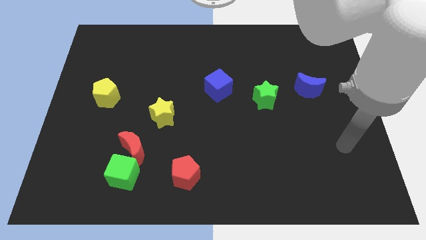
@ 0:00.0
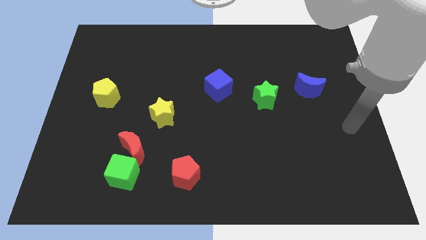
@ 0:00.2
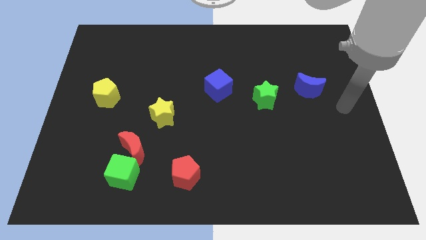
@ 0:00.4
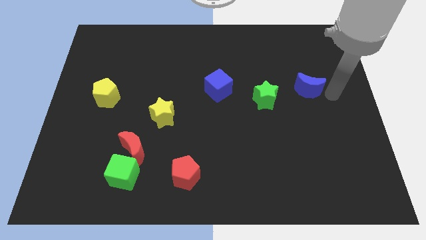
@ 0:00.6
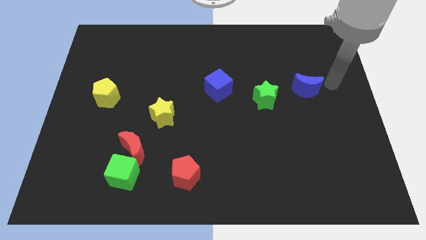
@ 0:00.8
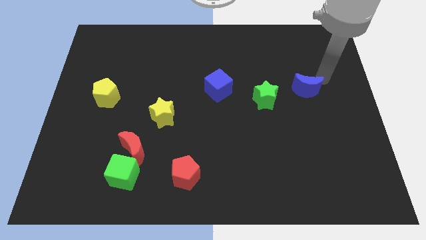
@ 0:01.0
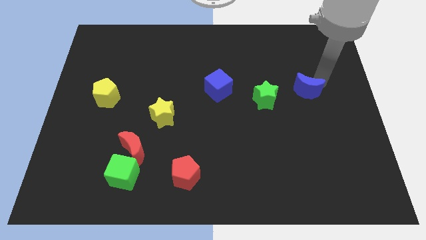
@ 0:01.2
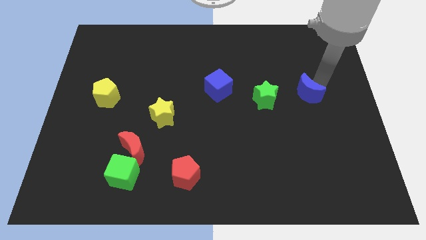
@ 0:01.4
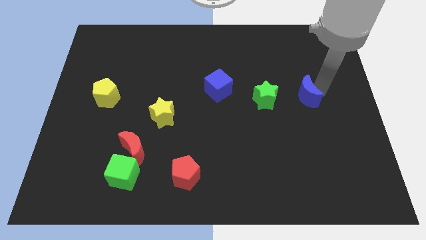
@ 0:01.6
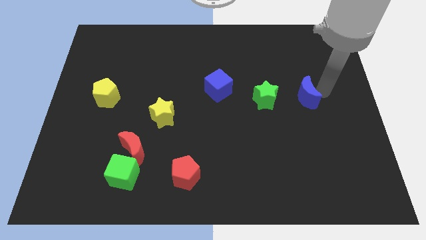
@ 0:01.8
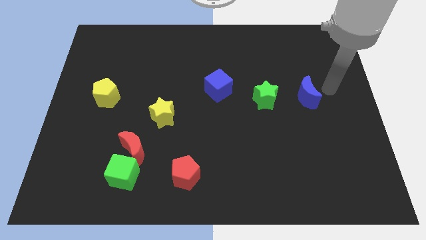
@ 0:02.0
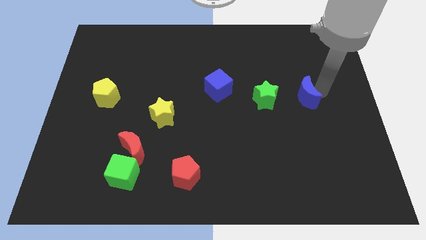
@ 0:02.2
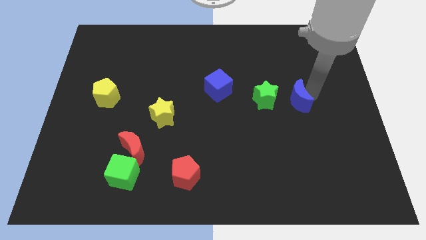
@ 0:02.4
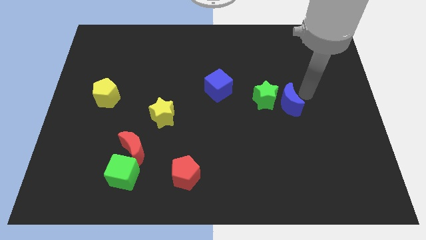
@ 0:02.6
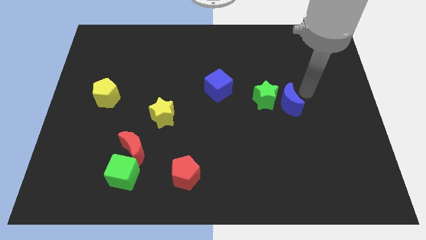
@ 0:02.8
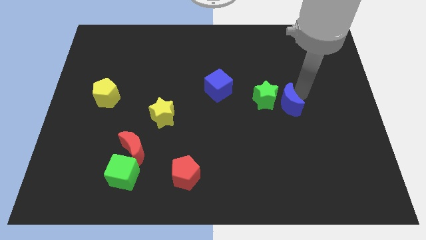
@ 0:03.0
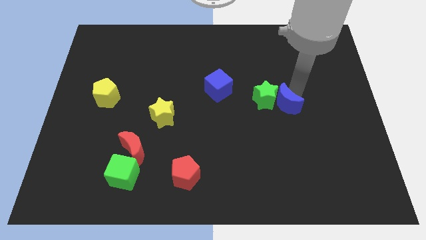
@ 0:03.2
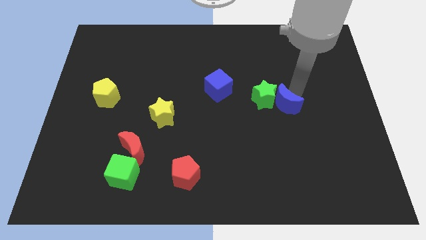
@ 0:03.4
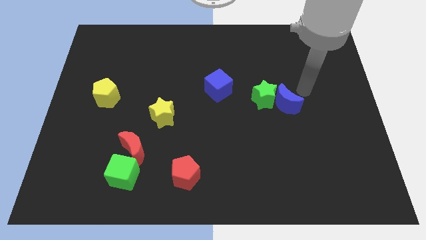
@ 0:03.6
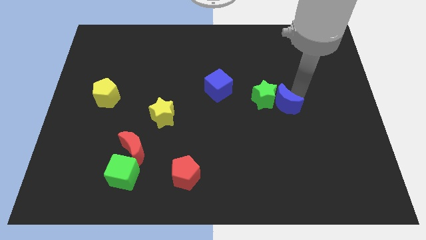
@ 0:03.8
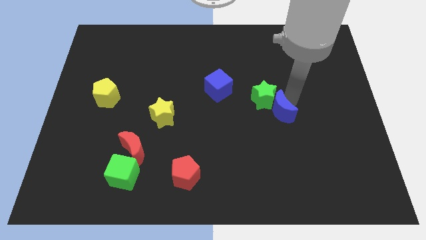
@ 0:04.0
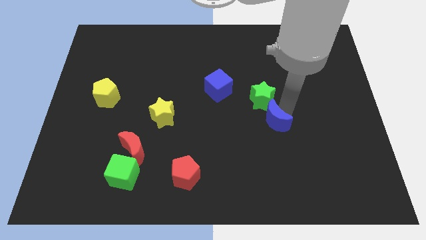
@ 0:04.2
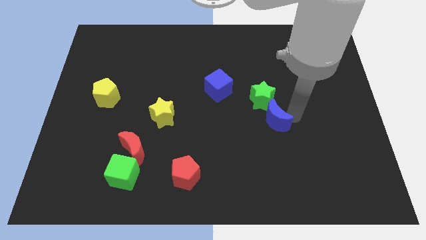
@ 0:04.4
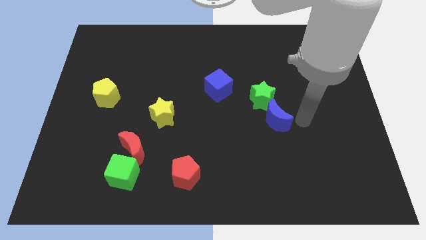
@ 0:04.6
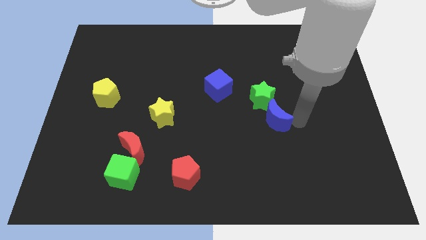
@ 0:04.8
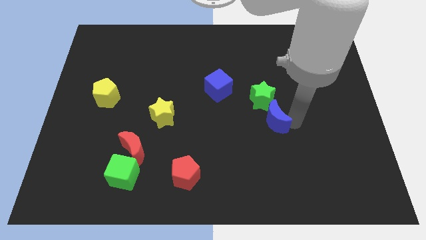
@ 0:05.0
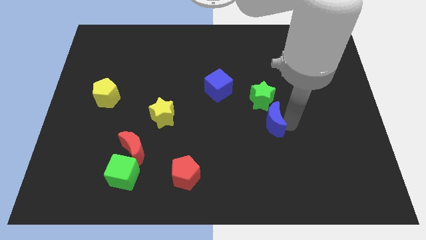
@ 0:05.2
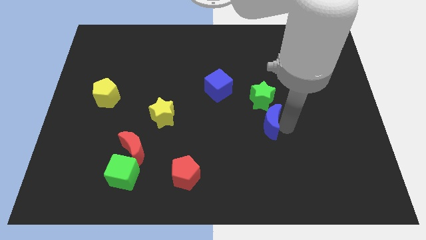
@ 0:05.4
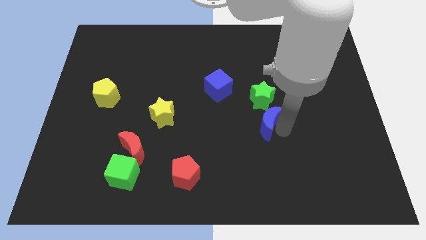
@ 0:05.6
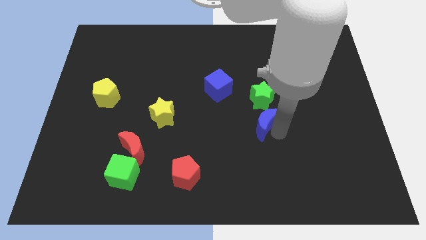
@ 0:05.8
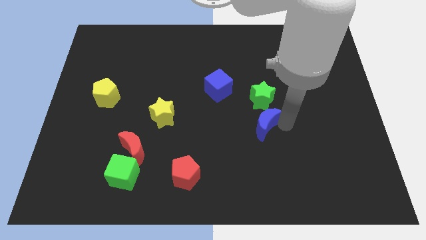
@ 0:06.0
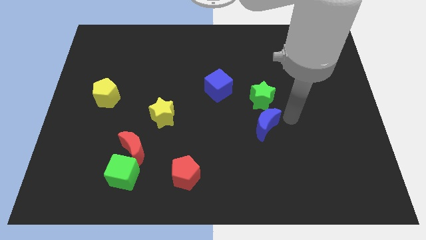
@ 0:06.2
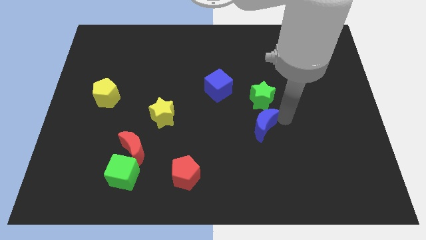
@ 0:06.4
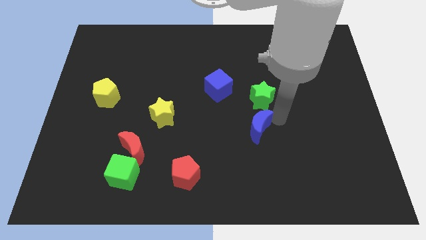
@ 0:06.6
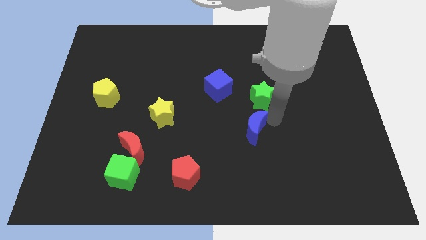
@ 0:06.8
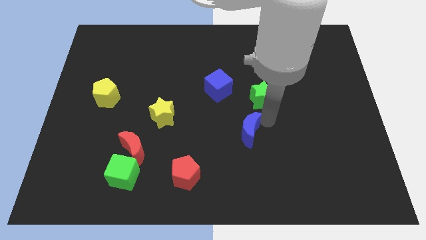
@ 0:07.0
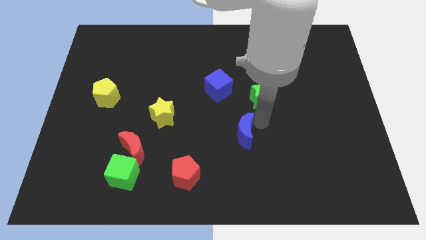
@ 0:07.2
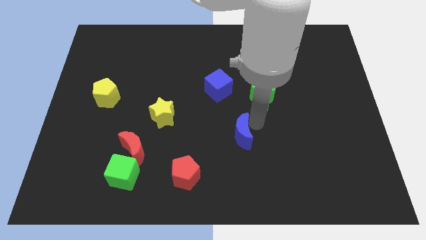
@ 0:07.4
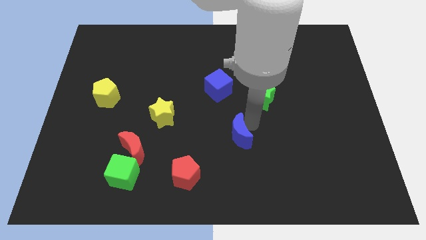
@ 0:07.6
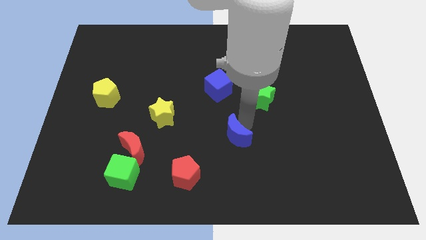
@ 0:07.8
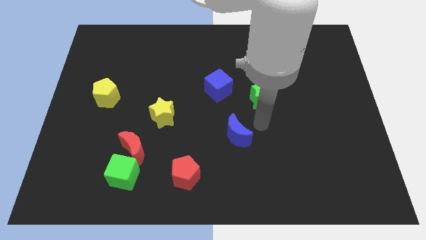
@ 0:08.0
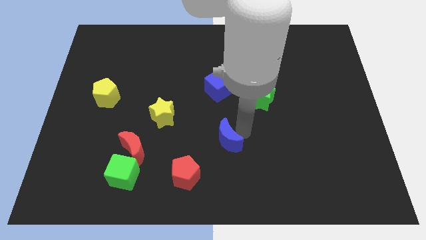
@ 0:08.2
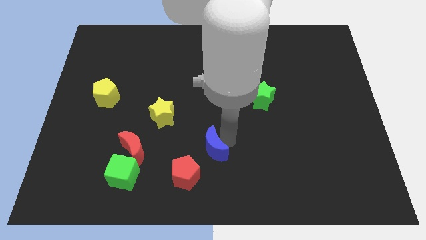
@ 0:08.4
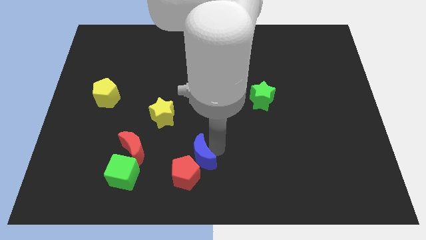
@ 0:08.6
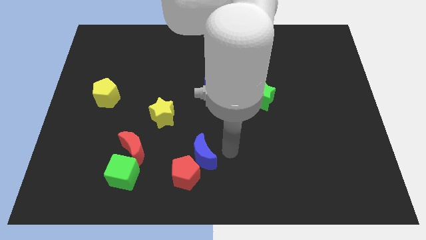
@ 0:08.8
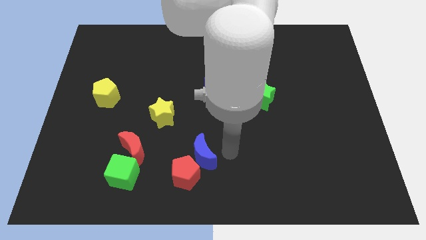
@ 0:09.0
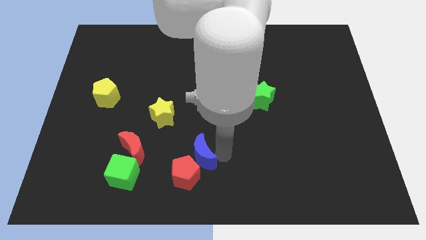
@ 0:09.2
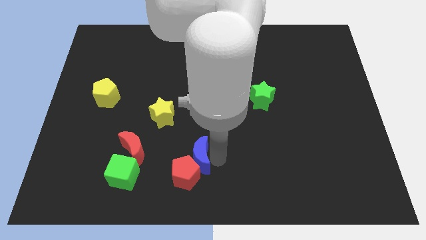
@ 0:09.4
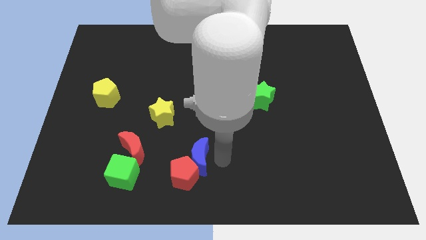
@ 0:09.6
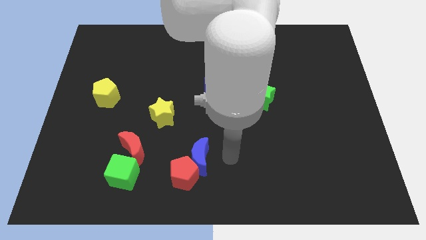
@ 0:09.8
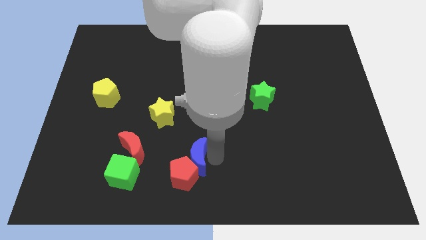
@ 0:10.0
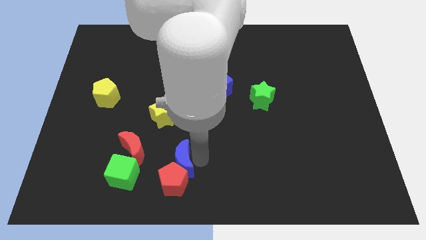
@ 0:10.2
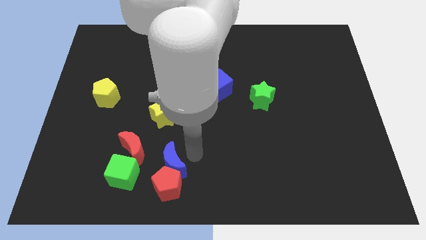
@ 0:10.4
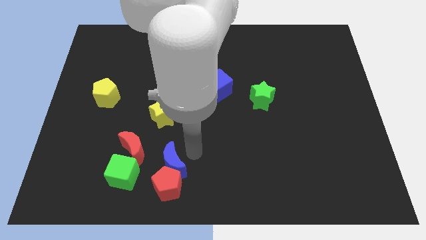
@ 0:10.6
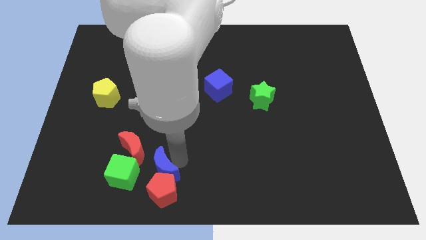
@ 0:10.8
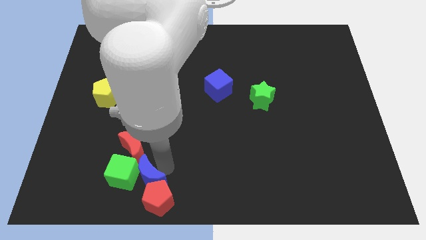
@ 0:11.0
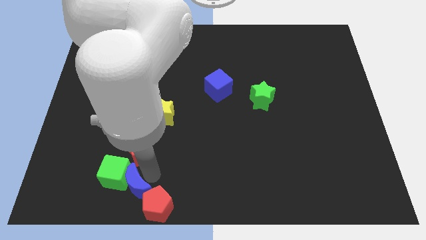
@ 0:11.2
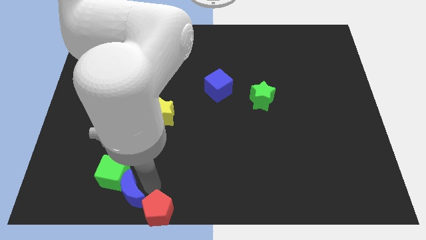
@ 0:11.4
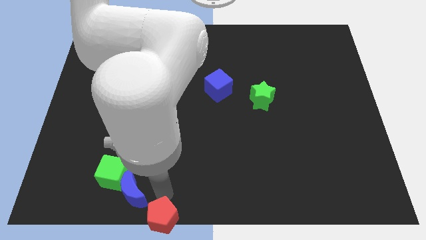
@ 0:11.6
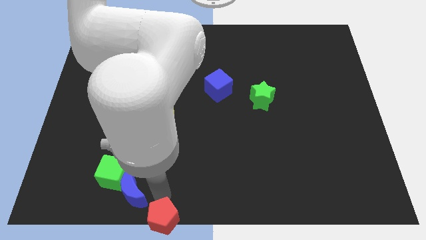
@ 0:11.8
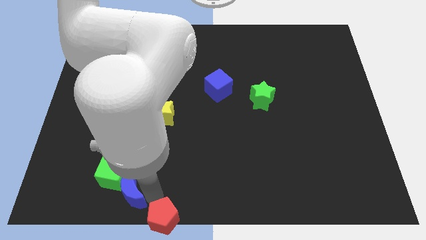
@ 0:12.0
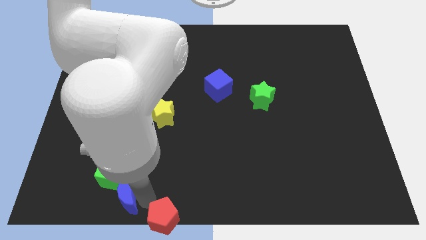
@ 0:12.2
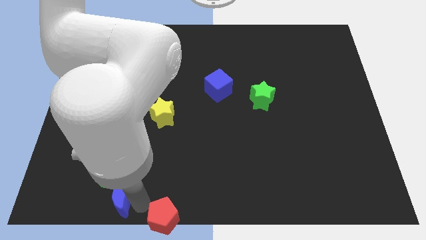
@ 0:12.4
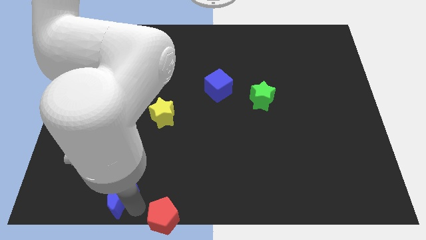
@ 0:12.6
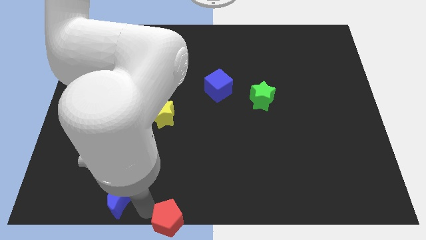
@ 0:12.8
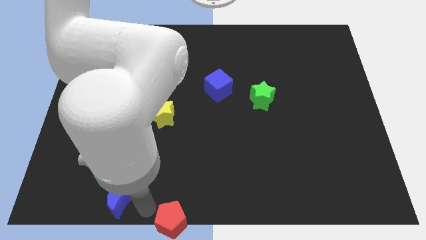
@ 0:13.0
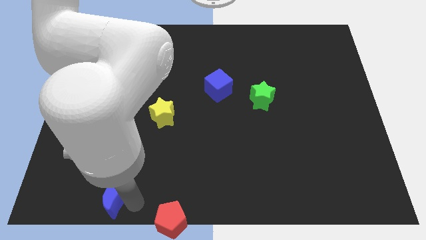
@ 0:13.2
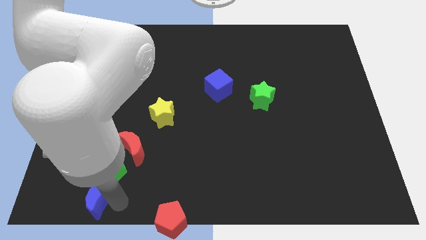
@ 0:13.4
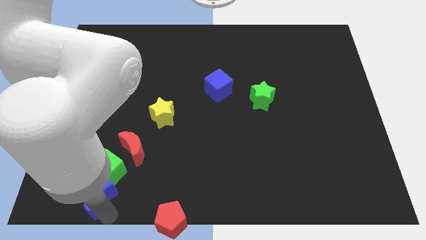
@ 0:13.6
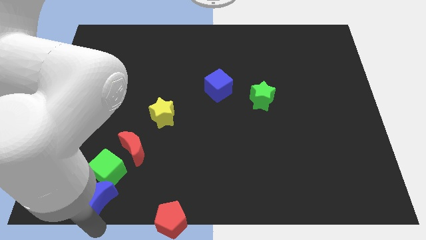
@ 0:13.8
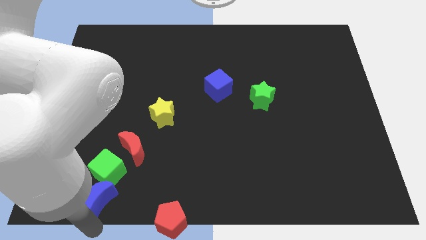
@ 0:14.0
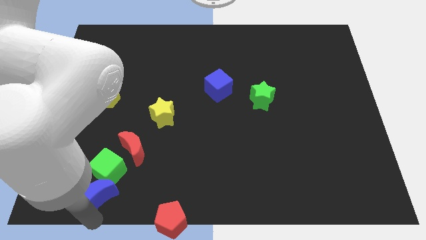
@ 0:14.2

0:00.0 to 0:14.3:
put the blue moon to the bottom left side of the red moon

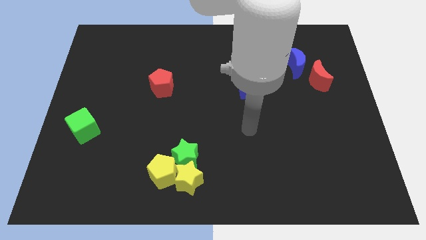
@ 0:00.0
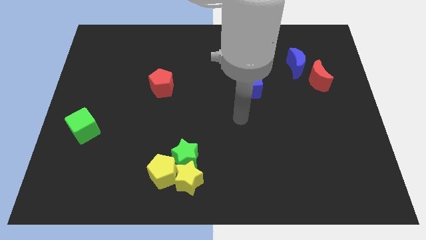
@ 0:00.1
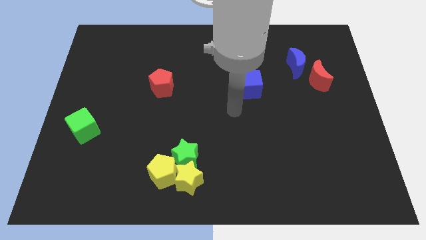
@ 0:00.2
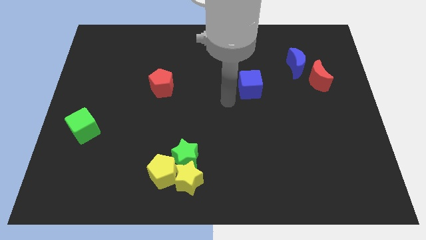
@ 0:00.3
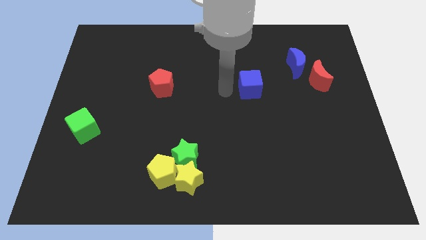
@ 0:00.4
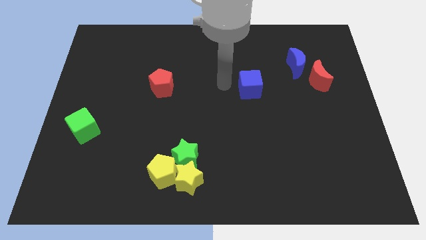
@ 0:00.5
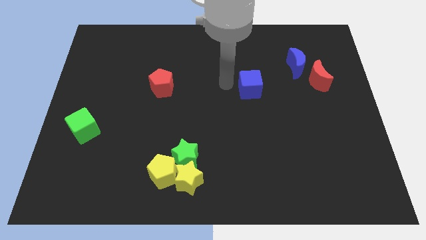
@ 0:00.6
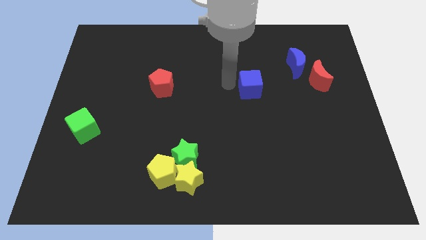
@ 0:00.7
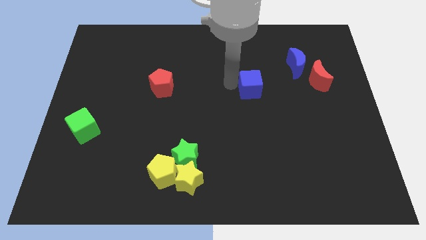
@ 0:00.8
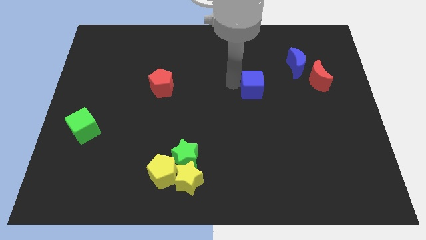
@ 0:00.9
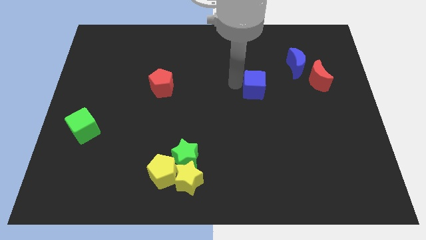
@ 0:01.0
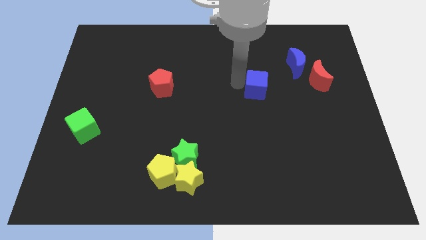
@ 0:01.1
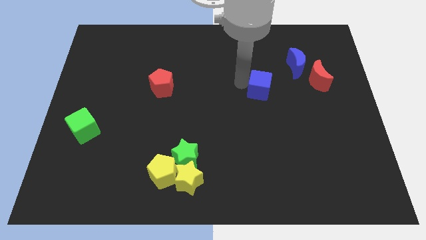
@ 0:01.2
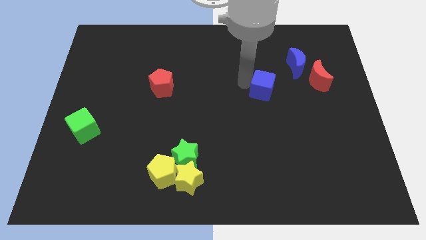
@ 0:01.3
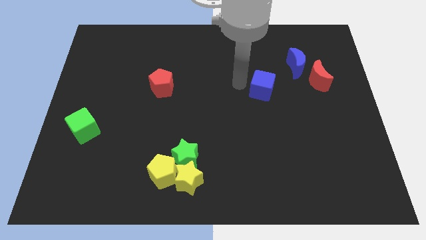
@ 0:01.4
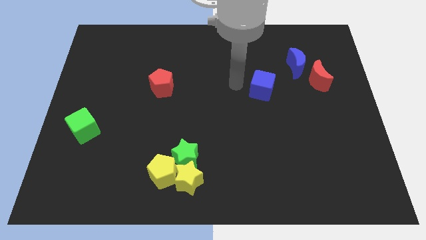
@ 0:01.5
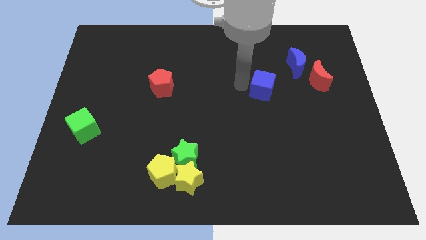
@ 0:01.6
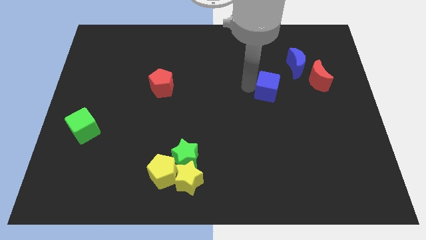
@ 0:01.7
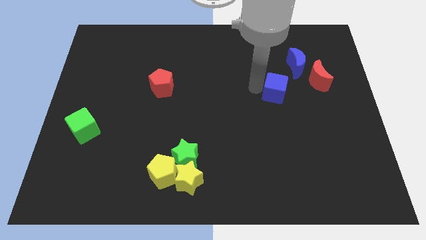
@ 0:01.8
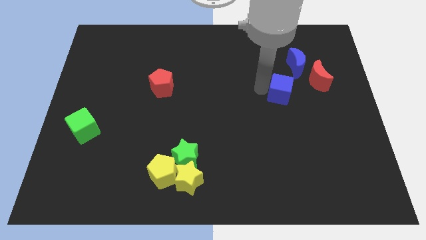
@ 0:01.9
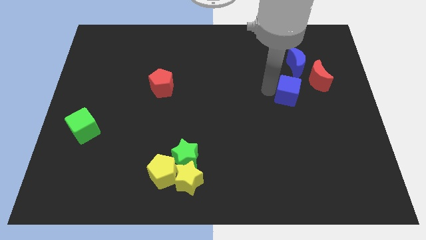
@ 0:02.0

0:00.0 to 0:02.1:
slide the blue cube below the blue moon
